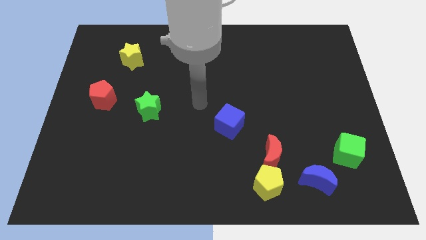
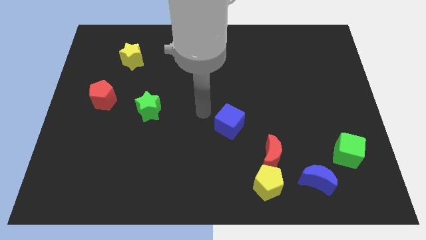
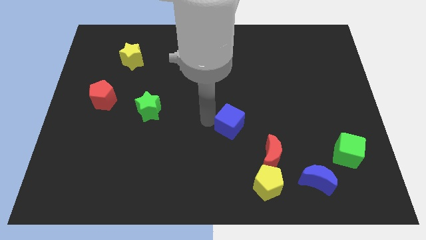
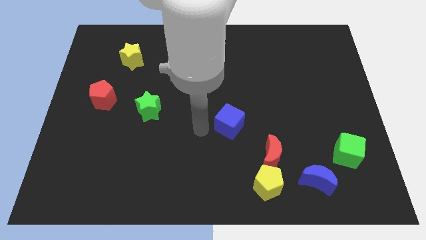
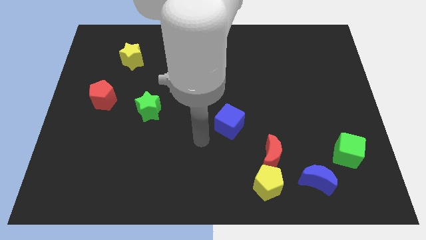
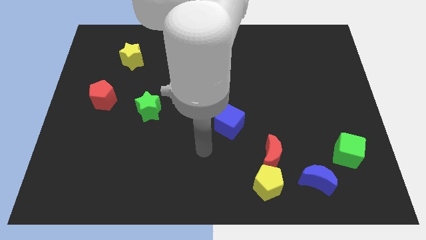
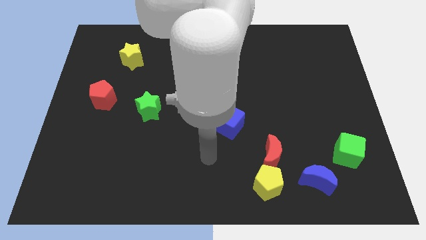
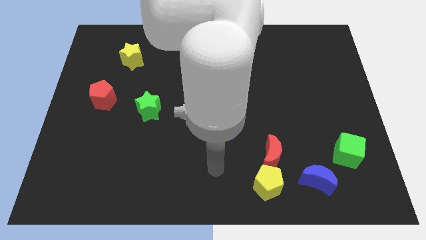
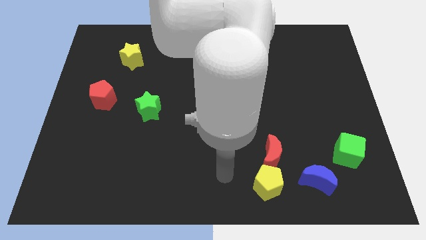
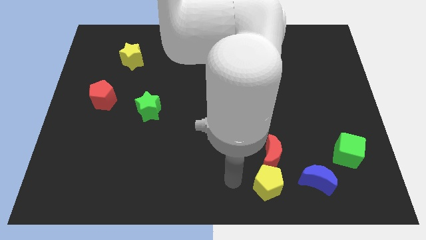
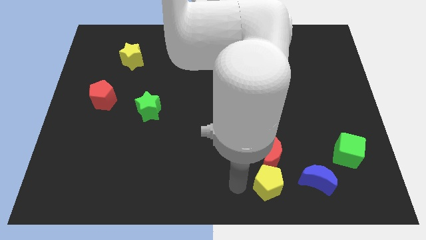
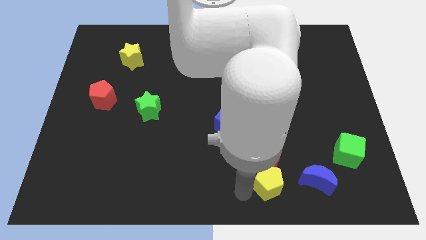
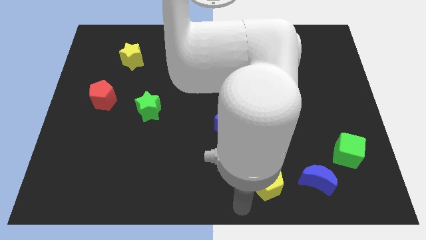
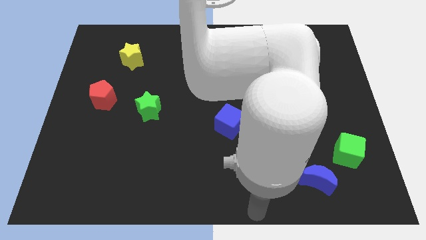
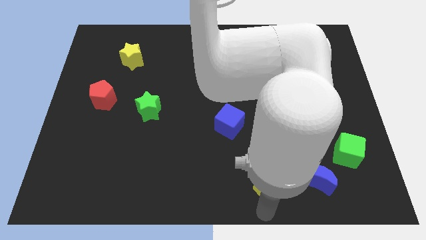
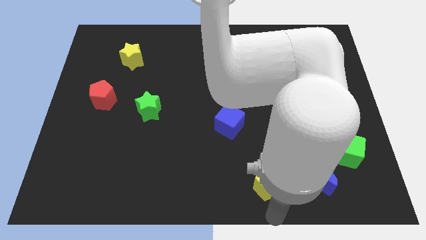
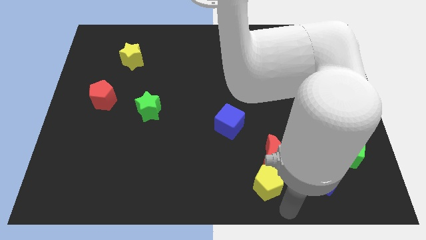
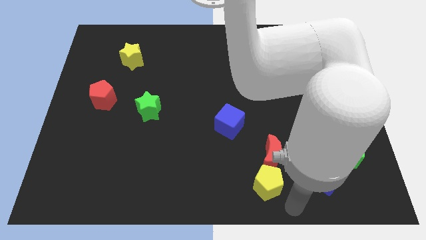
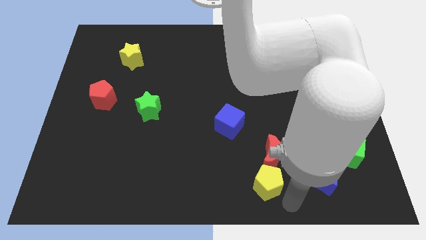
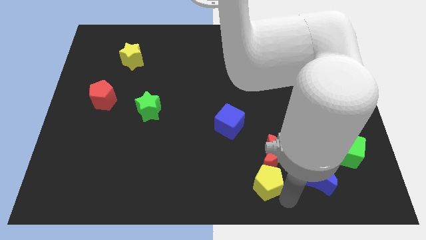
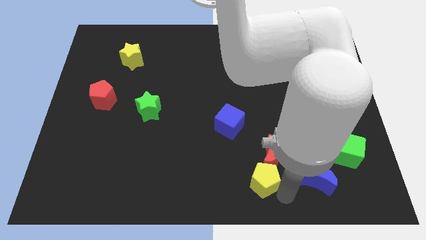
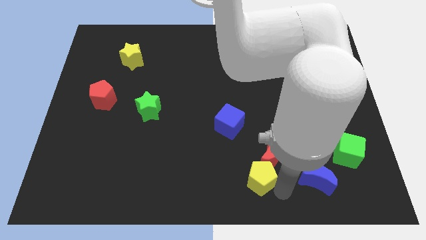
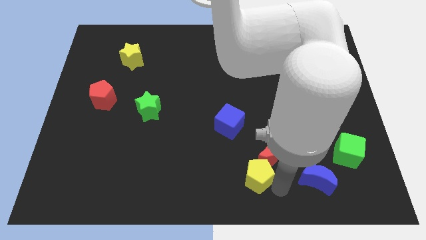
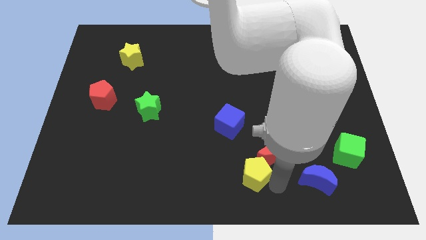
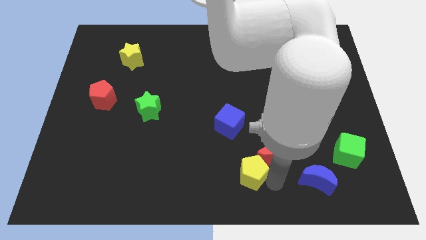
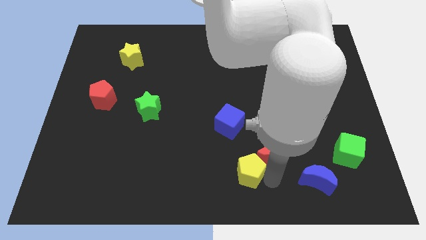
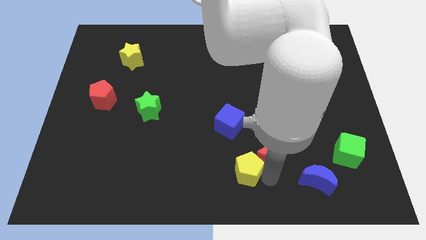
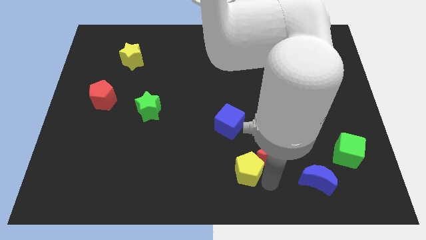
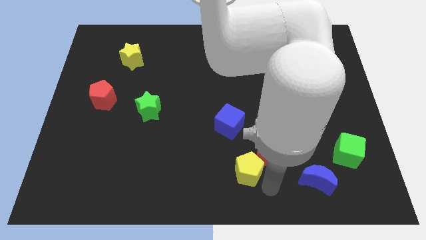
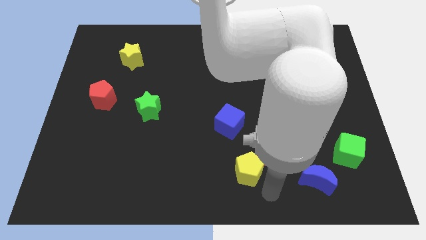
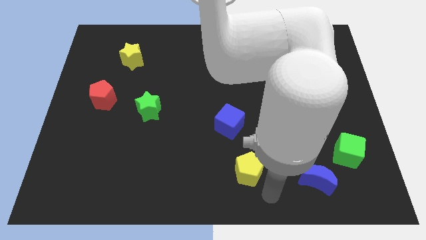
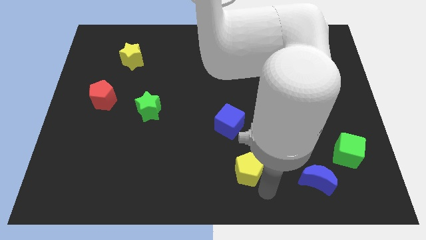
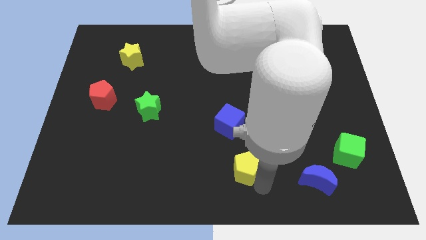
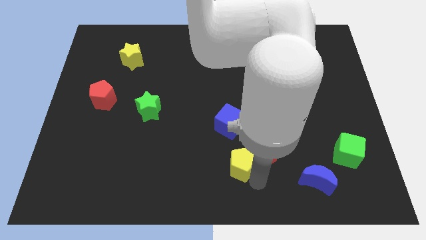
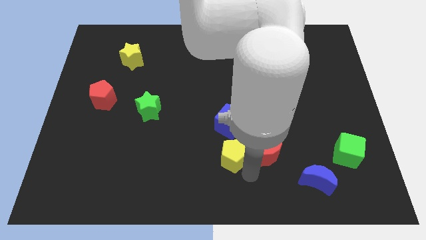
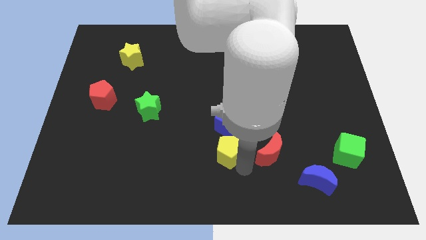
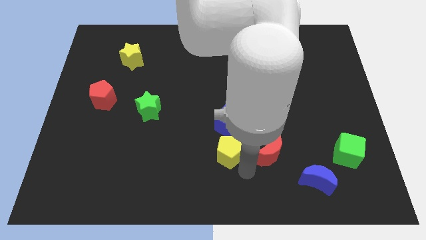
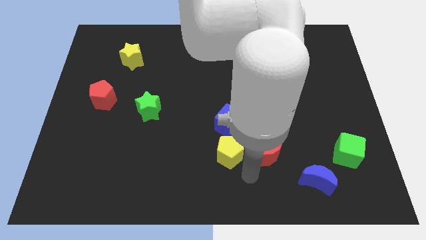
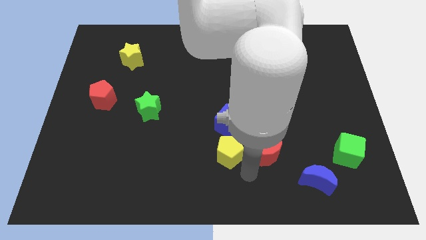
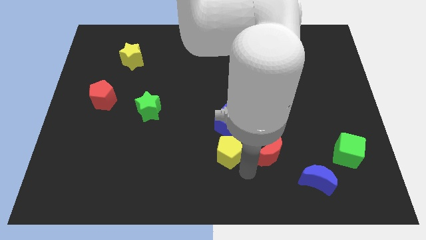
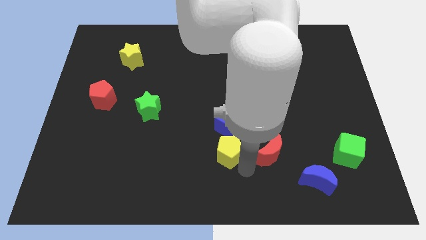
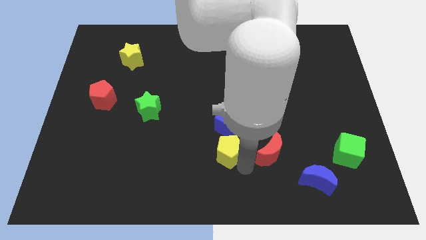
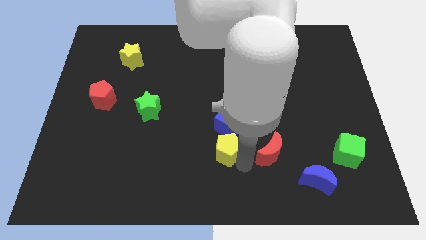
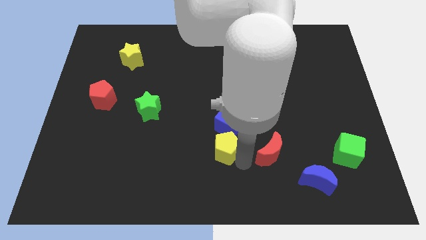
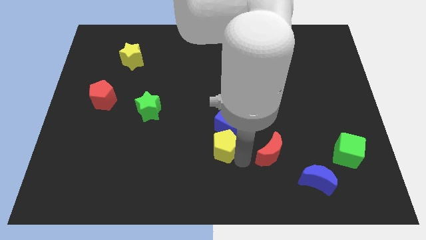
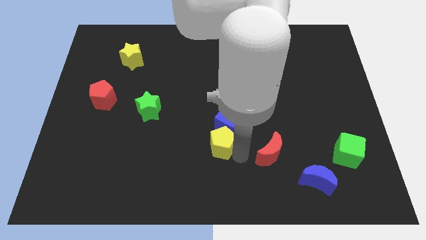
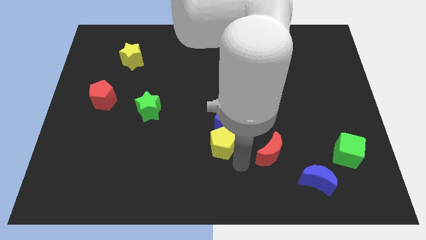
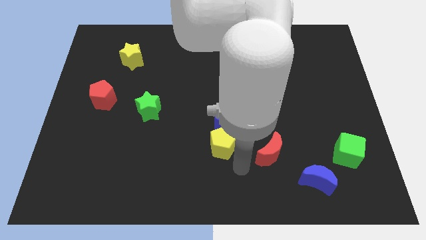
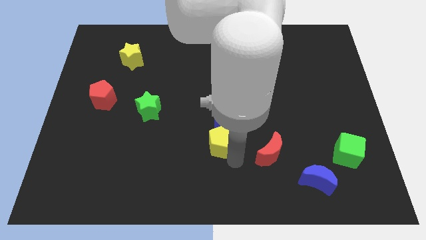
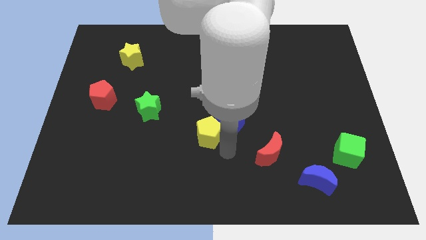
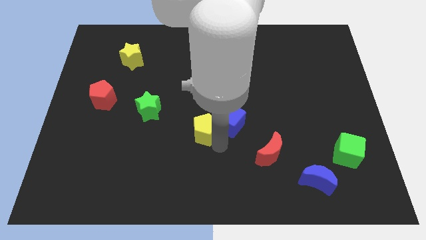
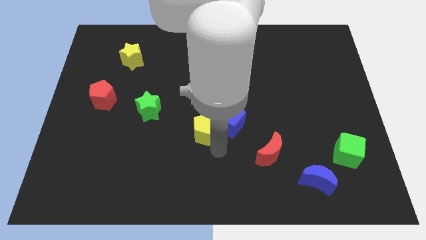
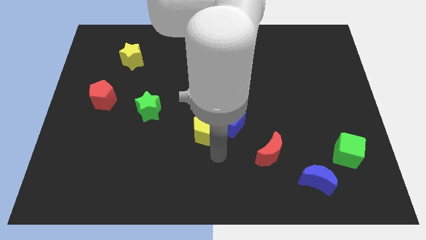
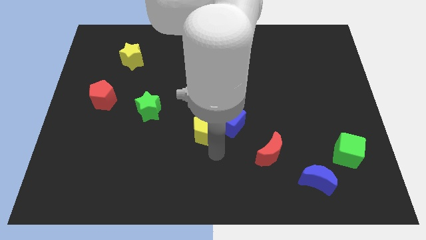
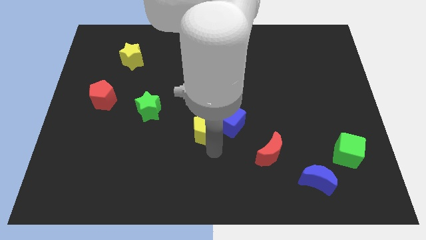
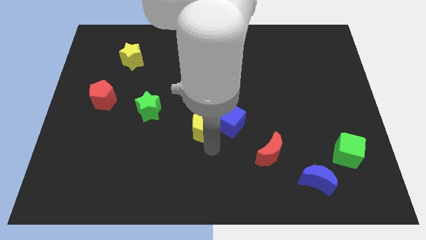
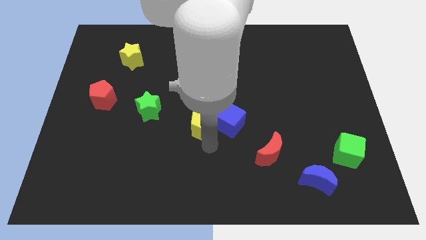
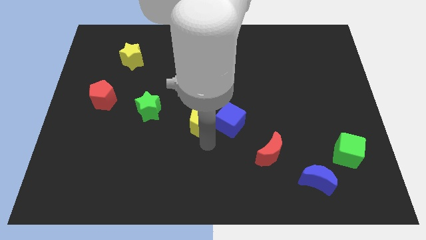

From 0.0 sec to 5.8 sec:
move the yellow pentagon right of the green star
